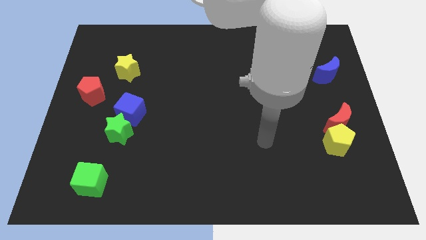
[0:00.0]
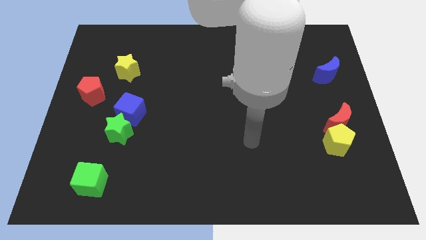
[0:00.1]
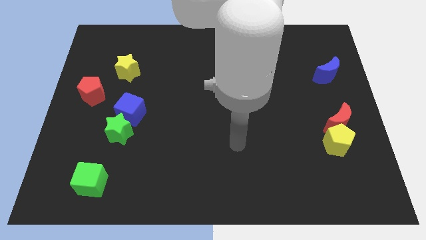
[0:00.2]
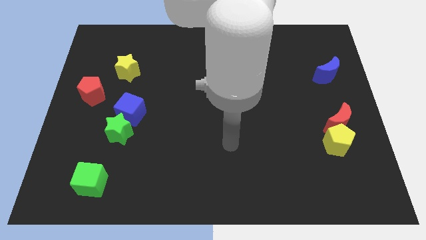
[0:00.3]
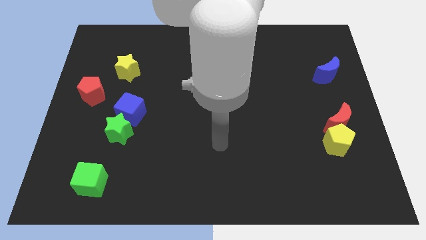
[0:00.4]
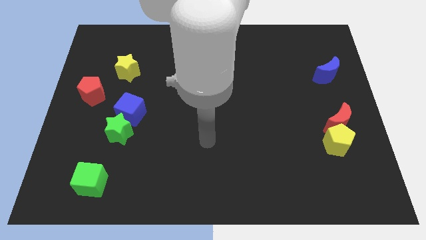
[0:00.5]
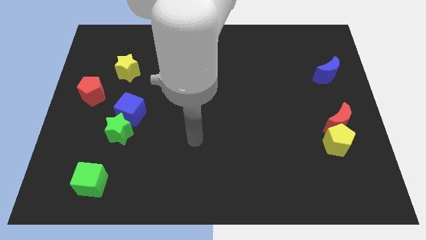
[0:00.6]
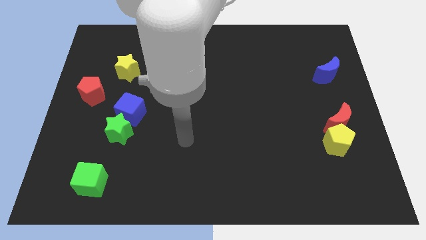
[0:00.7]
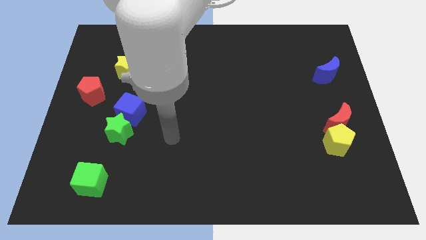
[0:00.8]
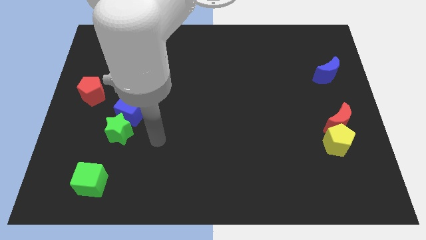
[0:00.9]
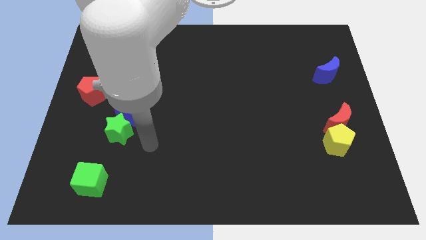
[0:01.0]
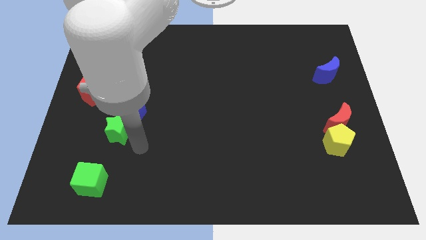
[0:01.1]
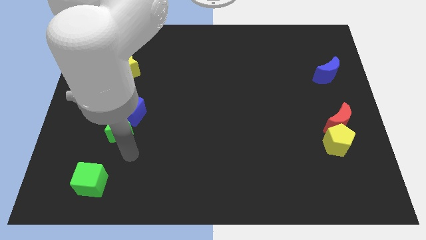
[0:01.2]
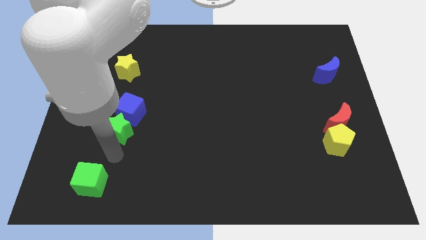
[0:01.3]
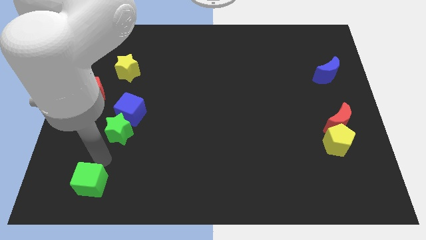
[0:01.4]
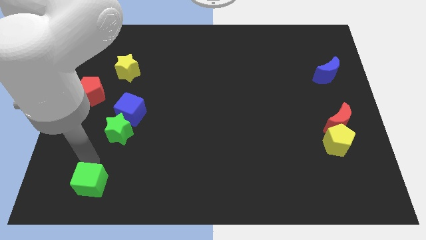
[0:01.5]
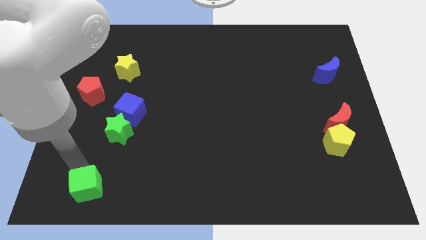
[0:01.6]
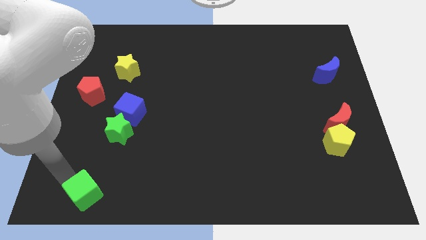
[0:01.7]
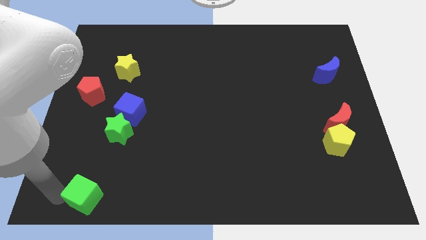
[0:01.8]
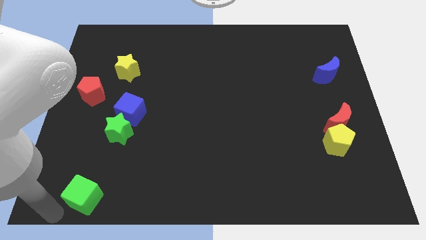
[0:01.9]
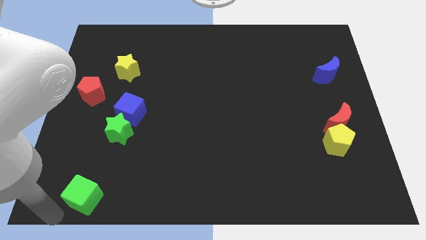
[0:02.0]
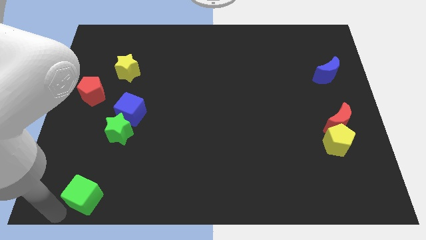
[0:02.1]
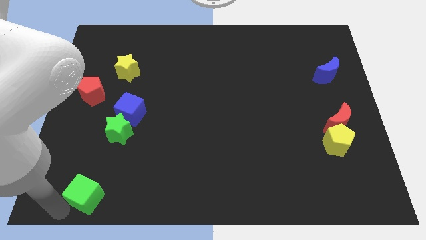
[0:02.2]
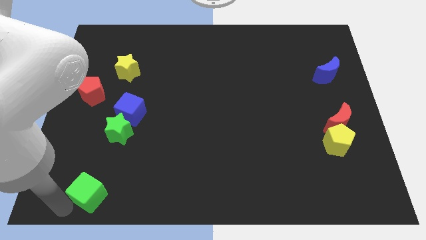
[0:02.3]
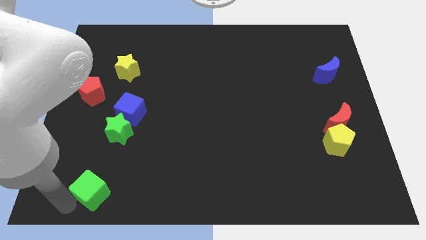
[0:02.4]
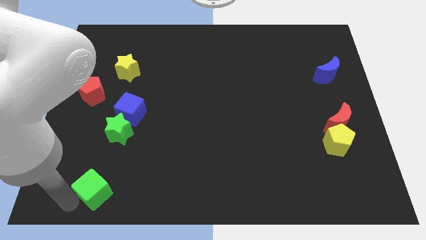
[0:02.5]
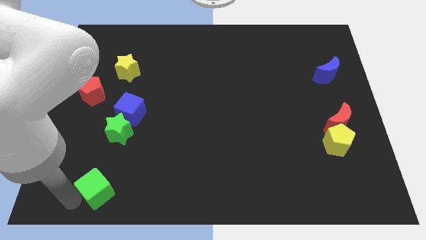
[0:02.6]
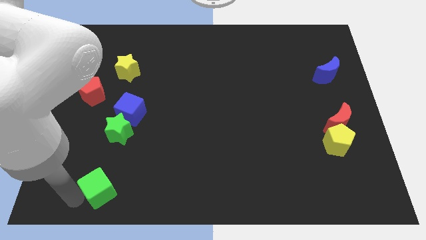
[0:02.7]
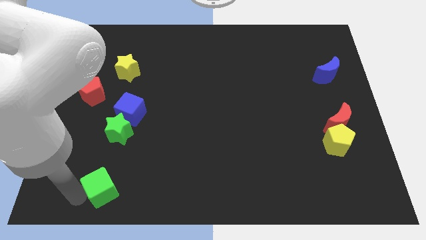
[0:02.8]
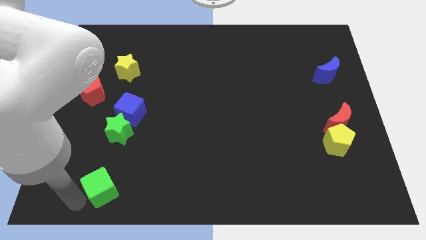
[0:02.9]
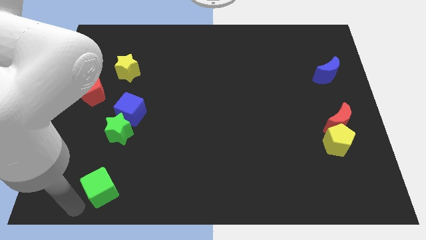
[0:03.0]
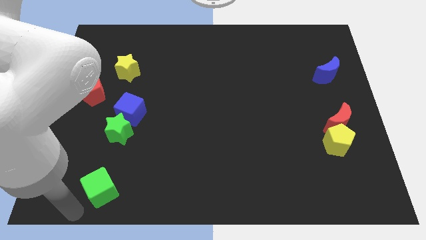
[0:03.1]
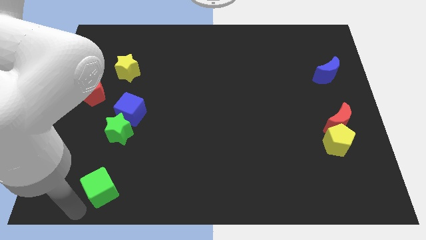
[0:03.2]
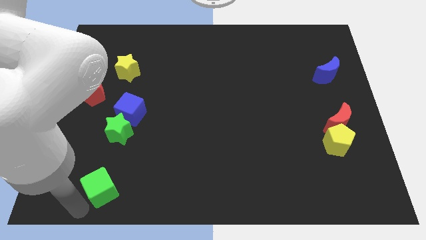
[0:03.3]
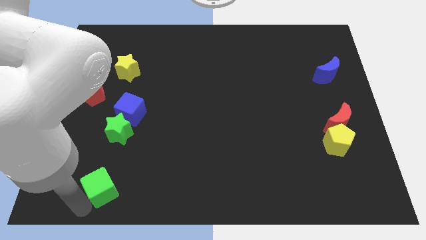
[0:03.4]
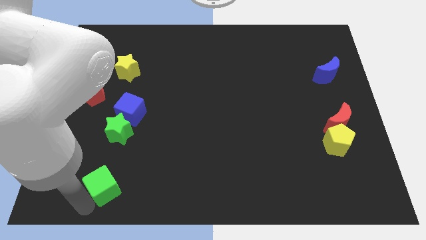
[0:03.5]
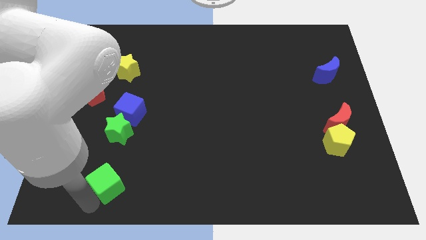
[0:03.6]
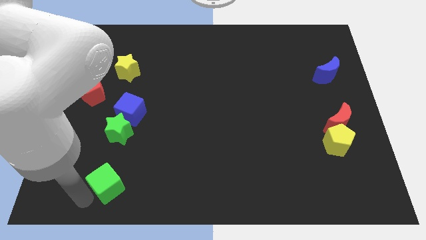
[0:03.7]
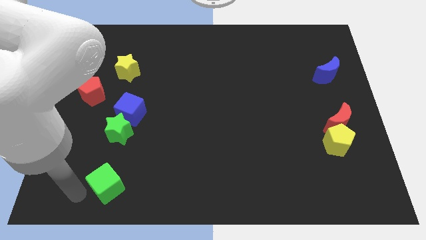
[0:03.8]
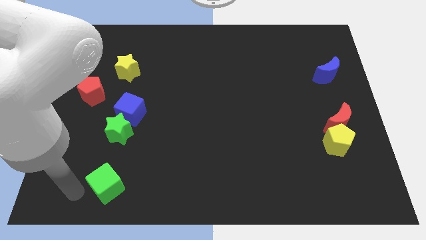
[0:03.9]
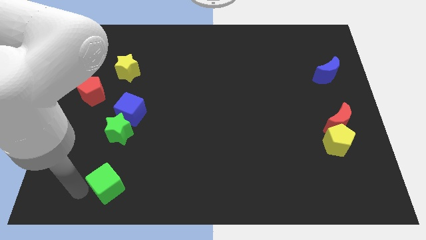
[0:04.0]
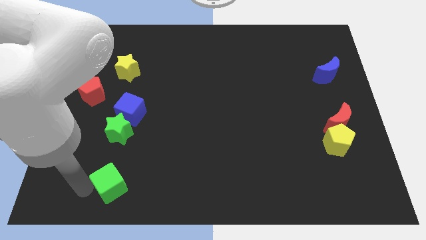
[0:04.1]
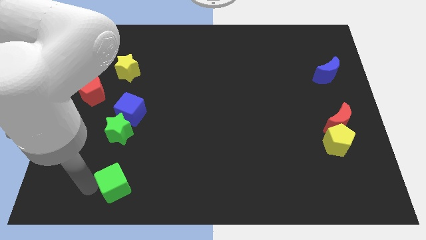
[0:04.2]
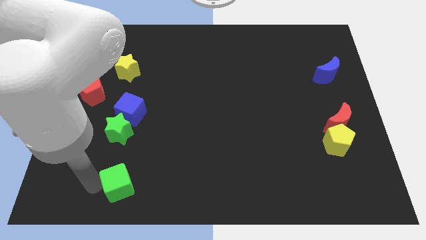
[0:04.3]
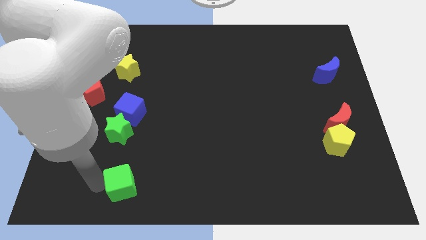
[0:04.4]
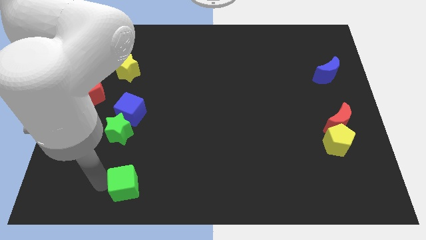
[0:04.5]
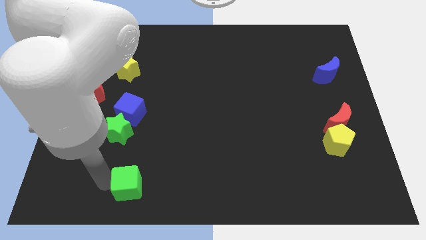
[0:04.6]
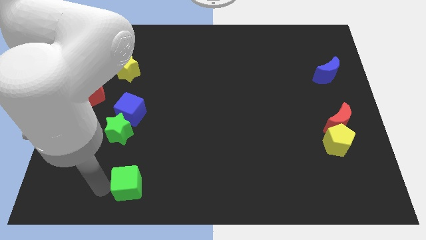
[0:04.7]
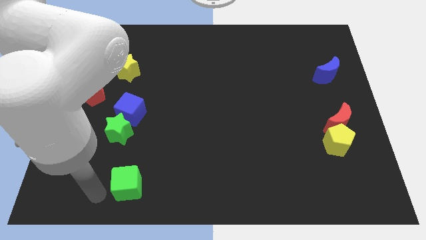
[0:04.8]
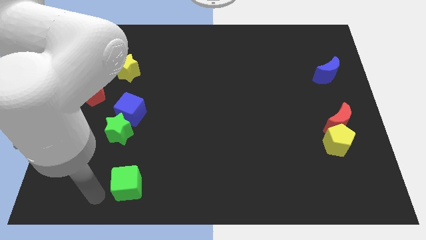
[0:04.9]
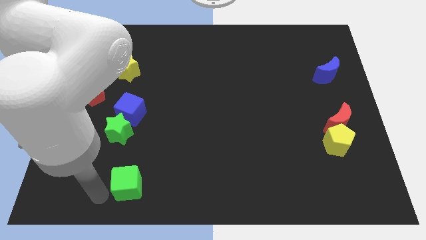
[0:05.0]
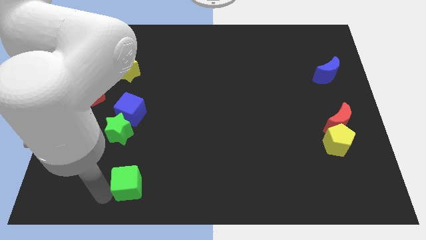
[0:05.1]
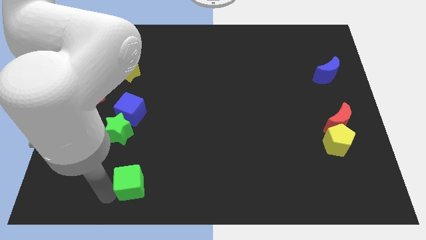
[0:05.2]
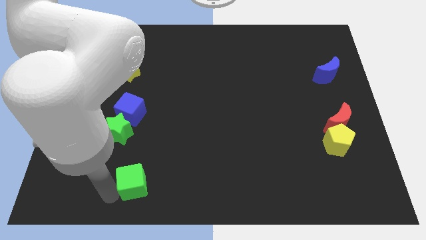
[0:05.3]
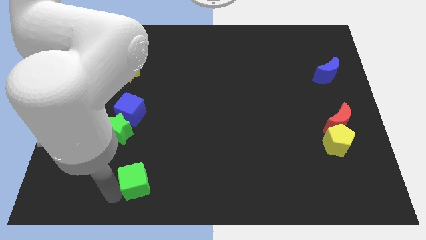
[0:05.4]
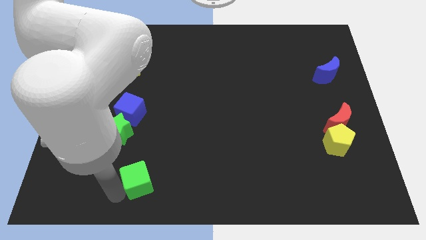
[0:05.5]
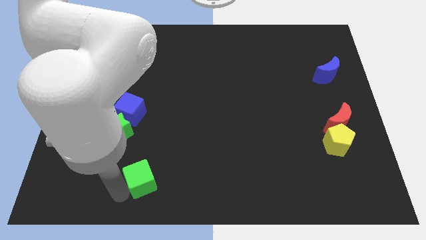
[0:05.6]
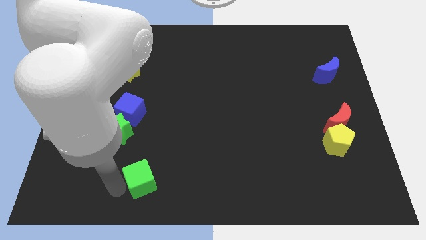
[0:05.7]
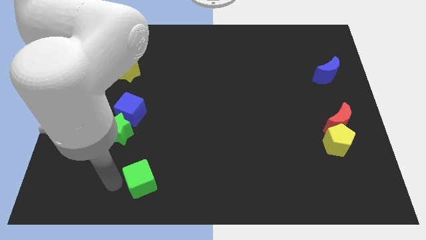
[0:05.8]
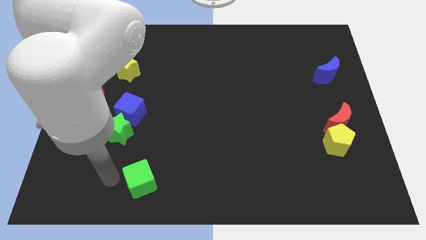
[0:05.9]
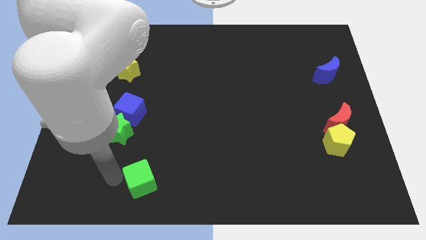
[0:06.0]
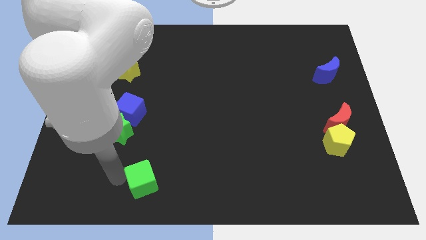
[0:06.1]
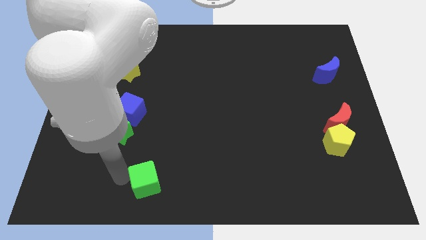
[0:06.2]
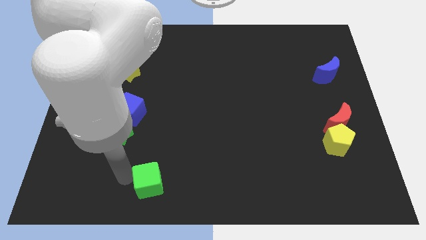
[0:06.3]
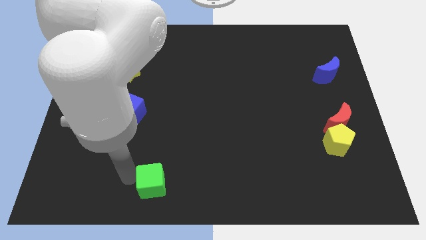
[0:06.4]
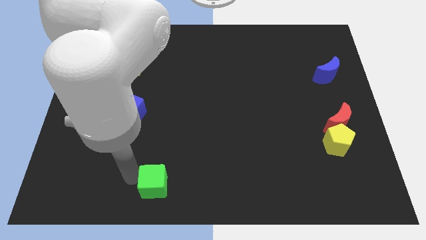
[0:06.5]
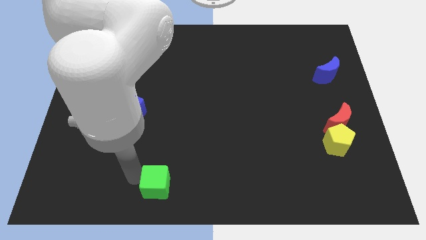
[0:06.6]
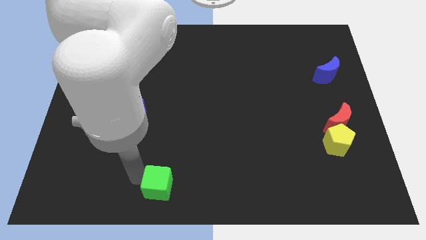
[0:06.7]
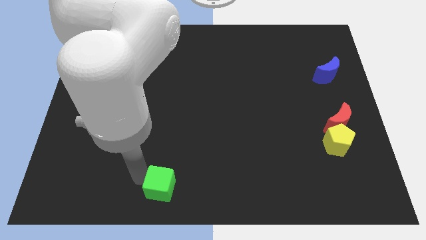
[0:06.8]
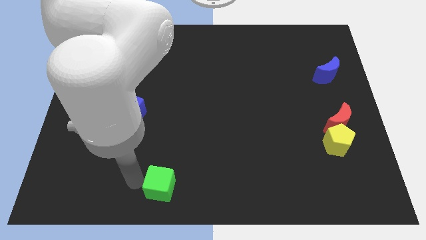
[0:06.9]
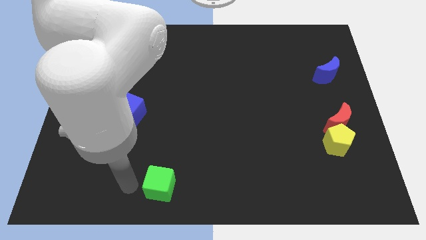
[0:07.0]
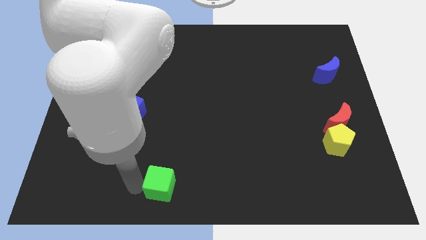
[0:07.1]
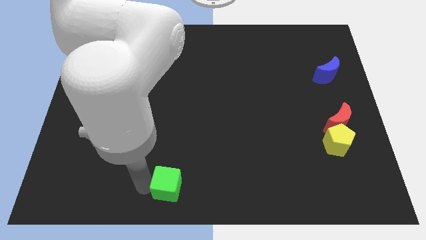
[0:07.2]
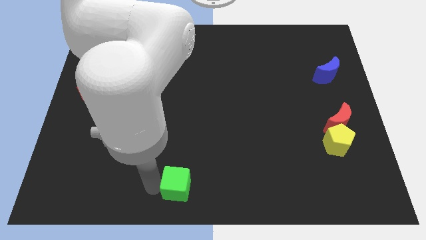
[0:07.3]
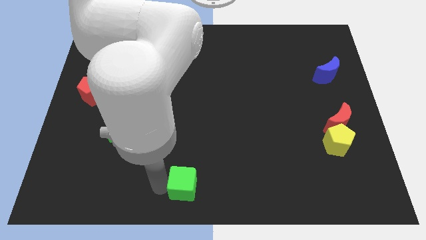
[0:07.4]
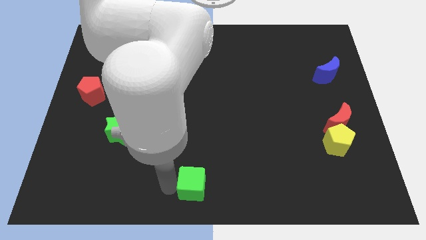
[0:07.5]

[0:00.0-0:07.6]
push the green cube right

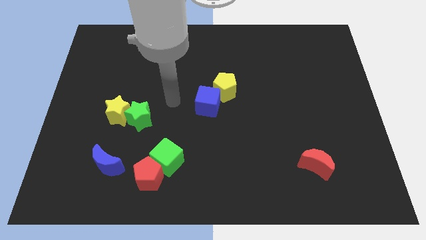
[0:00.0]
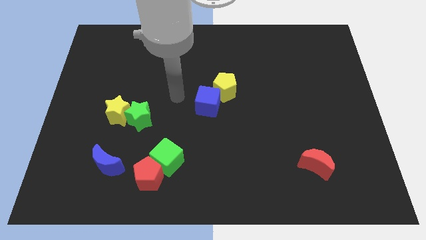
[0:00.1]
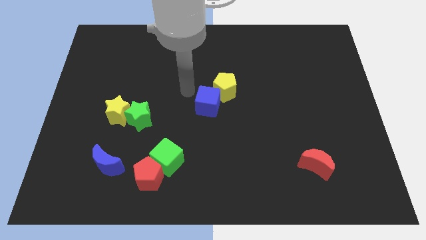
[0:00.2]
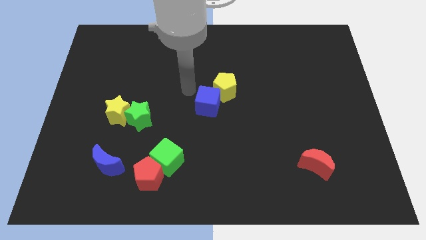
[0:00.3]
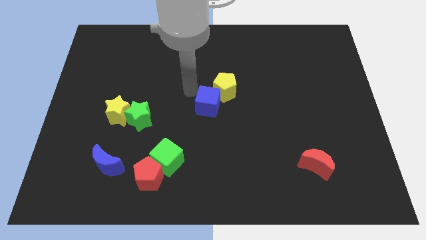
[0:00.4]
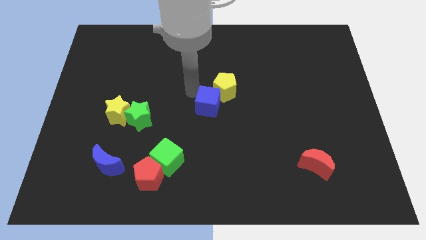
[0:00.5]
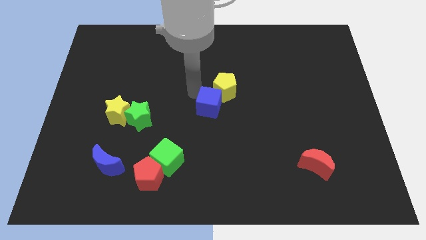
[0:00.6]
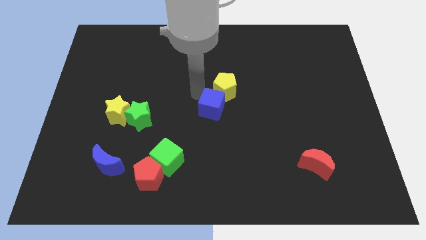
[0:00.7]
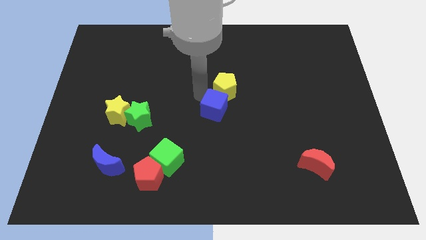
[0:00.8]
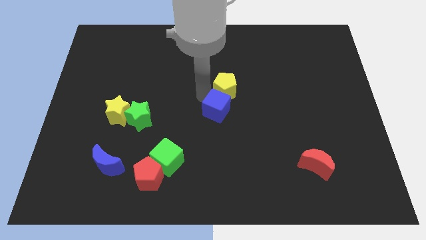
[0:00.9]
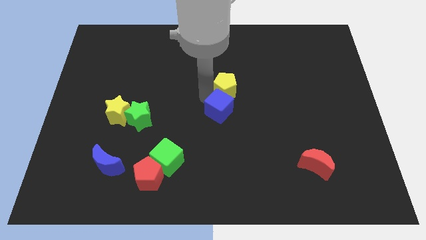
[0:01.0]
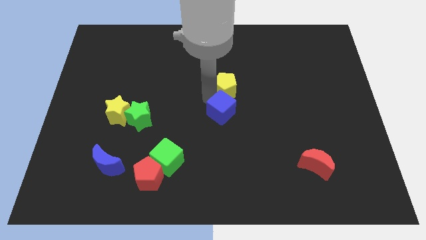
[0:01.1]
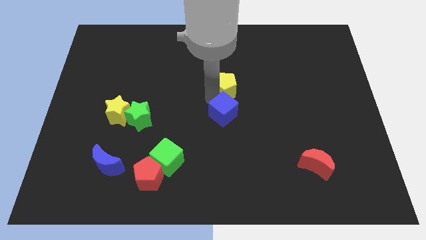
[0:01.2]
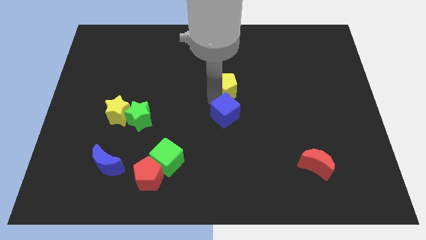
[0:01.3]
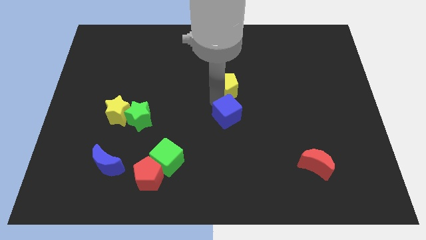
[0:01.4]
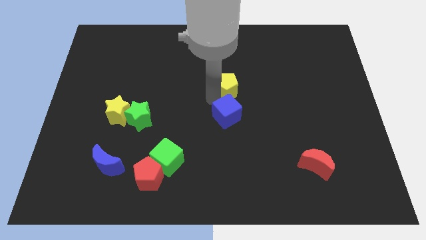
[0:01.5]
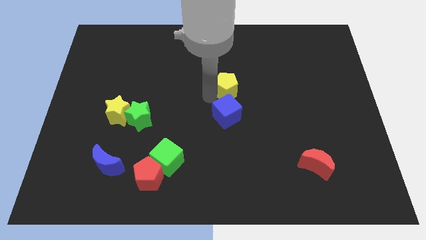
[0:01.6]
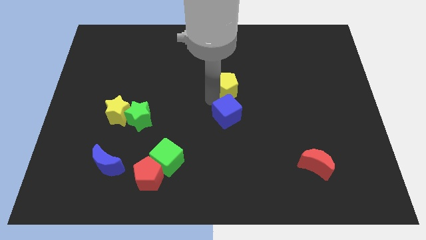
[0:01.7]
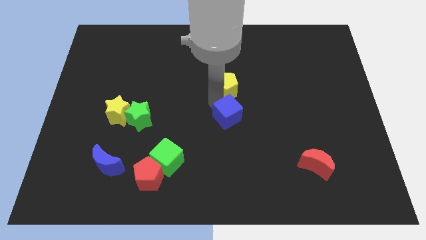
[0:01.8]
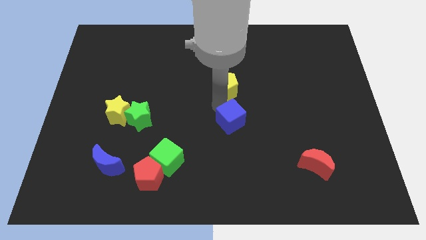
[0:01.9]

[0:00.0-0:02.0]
slide the blue cube a little bit downwards and then right
